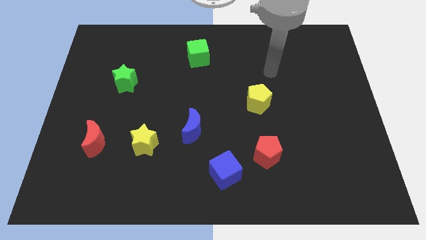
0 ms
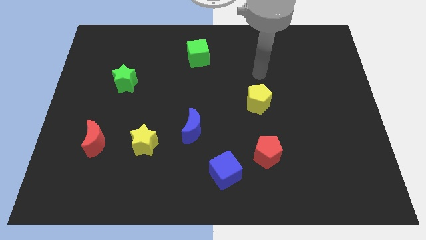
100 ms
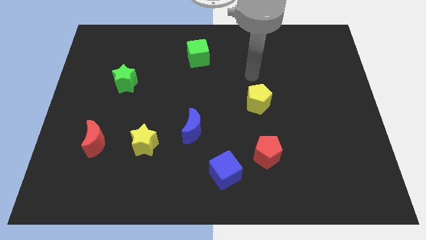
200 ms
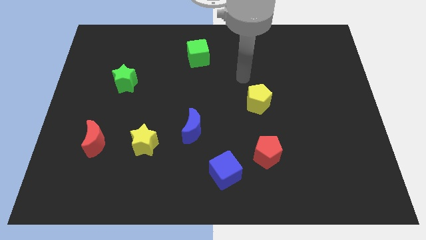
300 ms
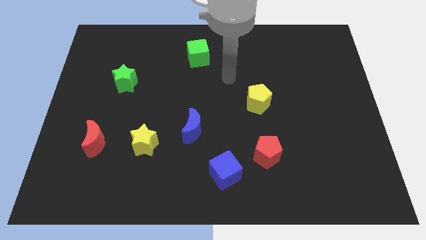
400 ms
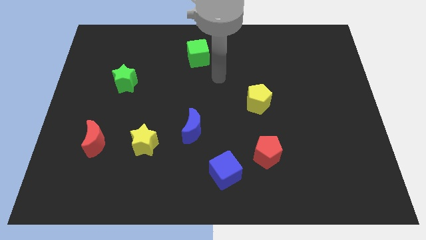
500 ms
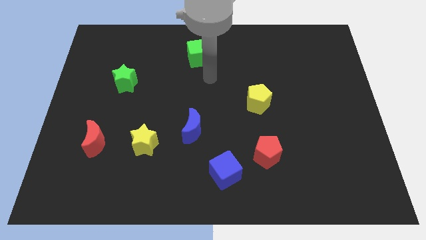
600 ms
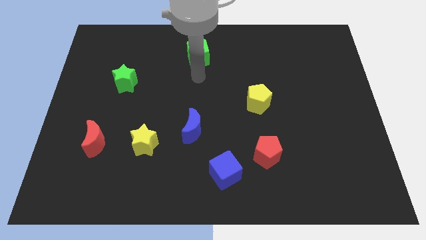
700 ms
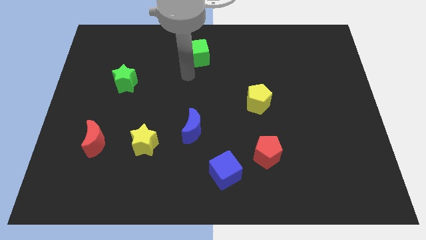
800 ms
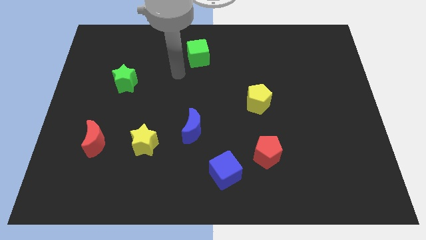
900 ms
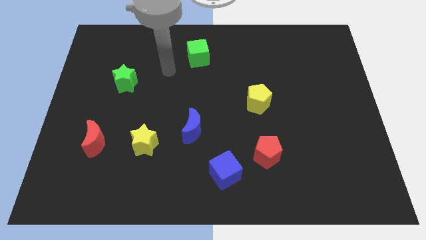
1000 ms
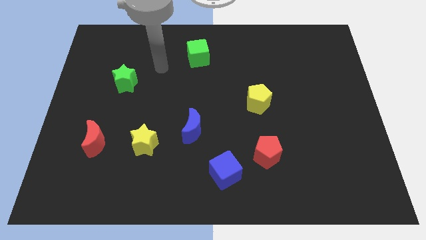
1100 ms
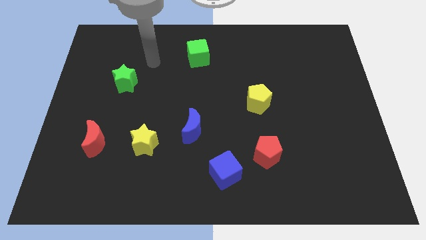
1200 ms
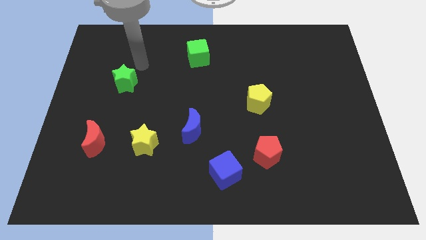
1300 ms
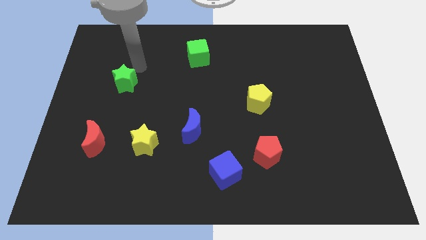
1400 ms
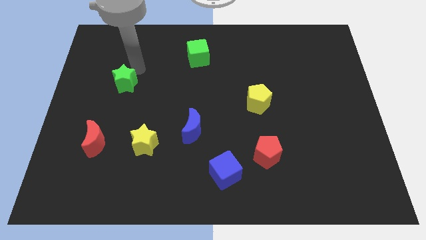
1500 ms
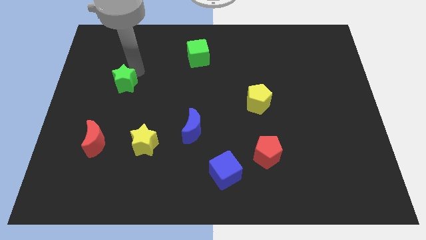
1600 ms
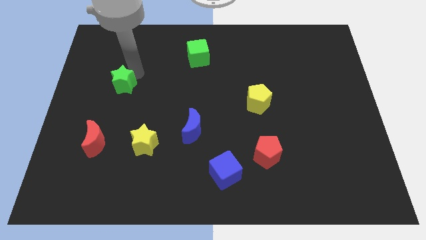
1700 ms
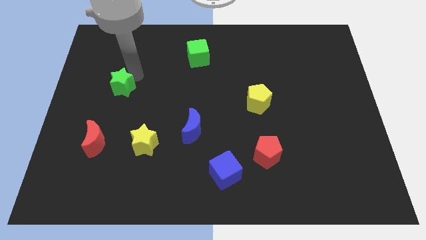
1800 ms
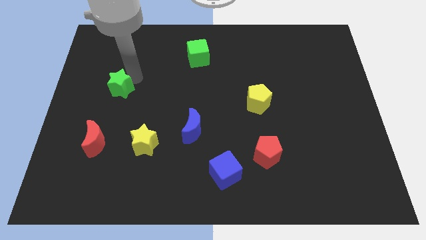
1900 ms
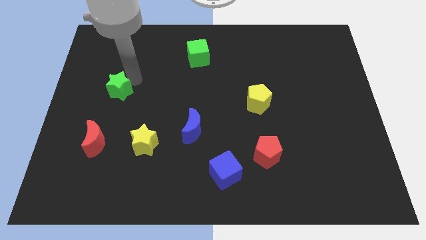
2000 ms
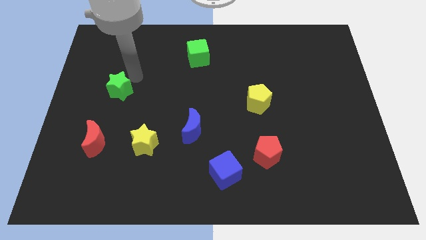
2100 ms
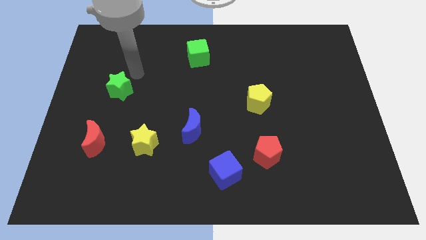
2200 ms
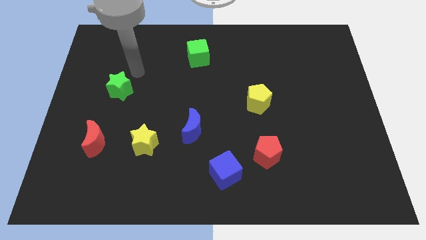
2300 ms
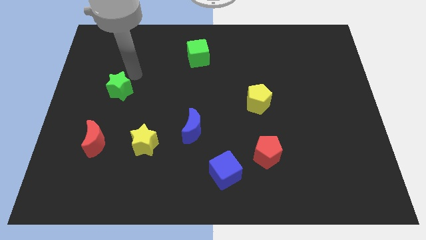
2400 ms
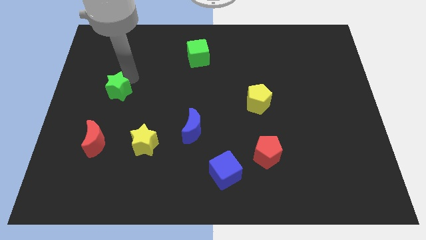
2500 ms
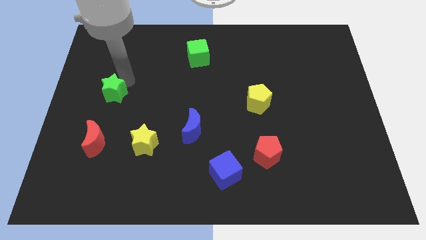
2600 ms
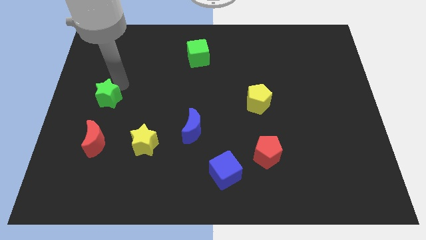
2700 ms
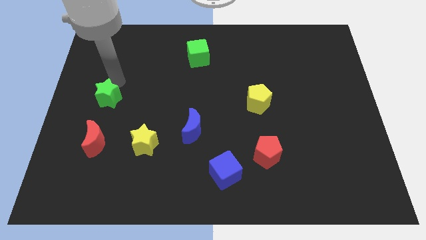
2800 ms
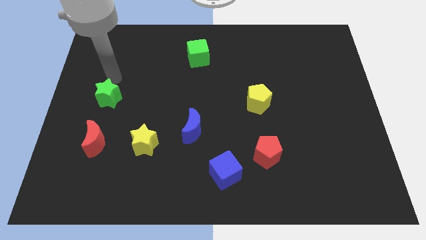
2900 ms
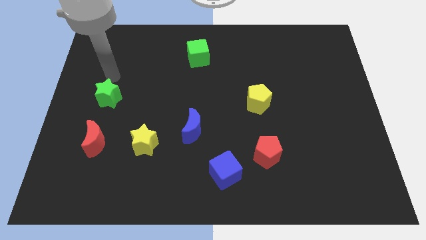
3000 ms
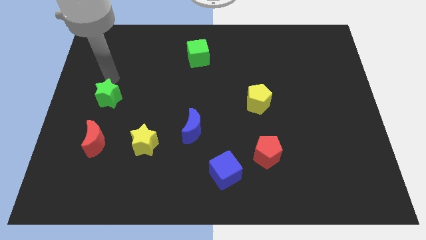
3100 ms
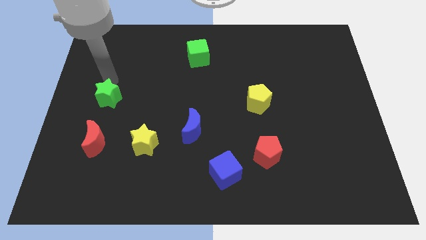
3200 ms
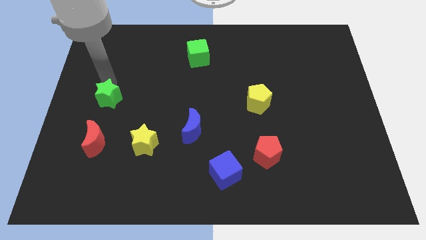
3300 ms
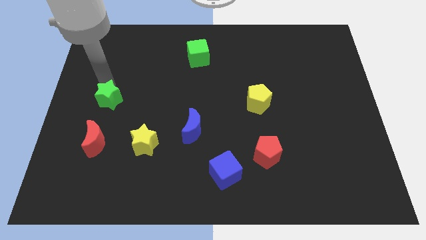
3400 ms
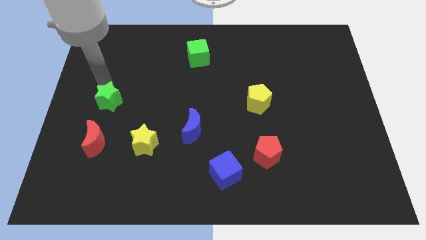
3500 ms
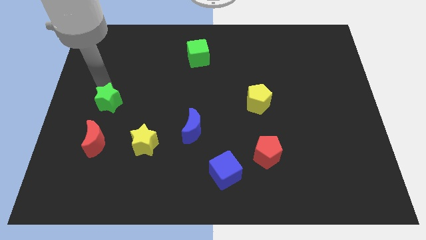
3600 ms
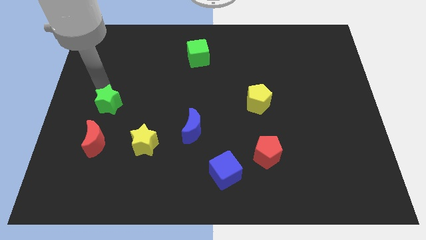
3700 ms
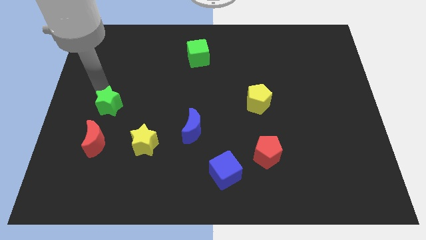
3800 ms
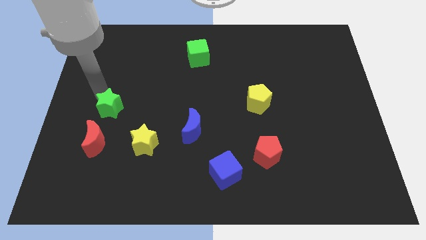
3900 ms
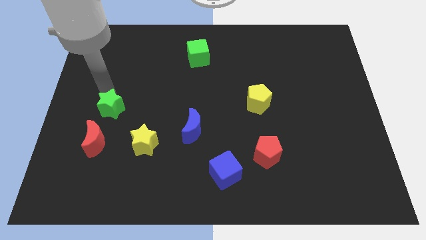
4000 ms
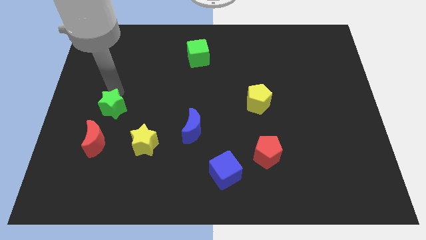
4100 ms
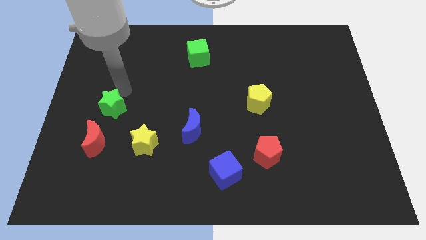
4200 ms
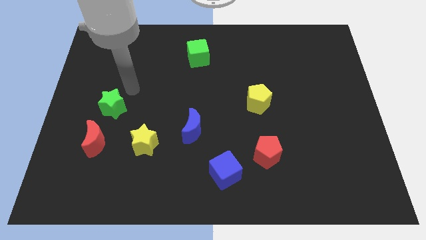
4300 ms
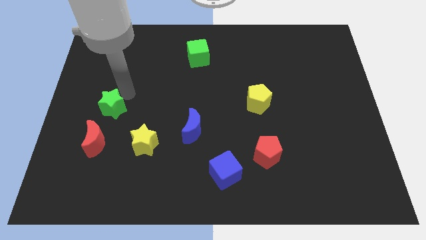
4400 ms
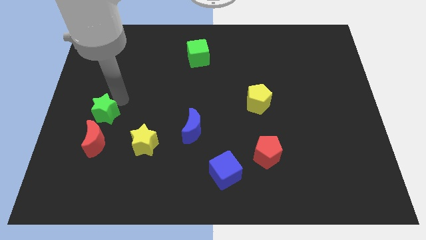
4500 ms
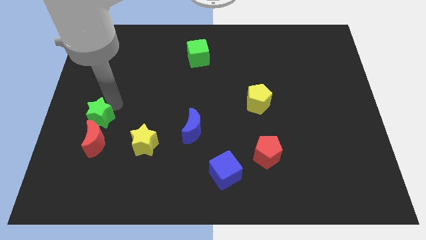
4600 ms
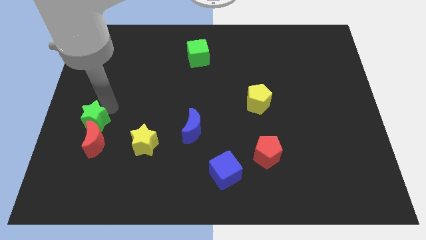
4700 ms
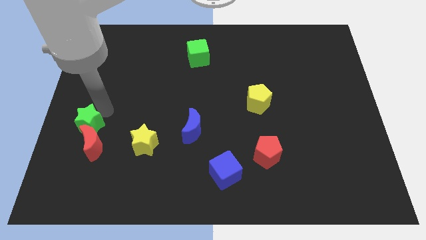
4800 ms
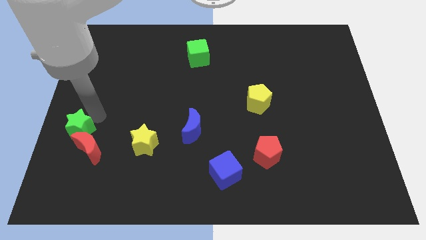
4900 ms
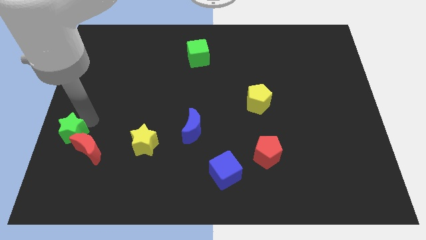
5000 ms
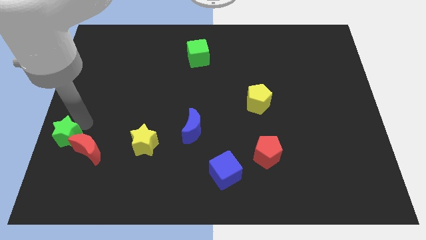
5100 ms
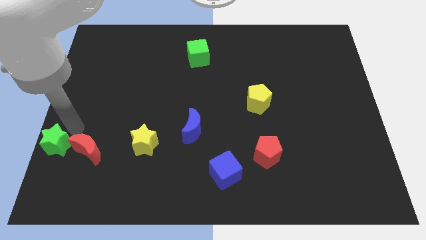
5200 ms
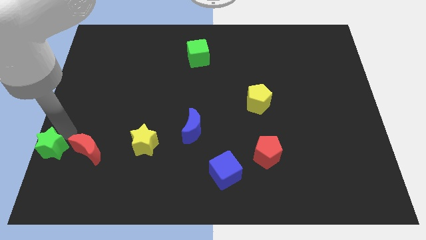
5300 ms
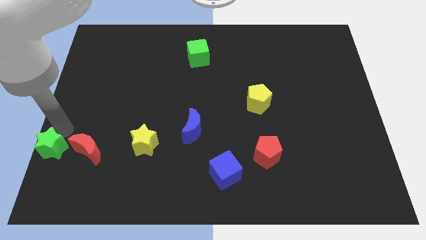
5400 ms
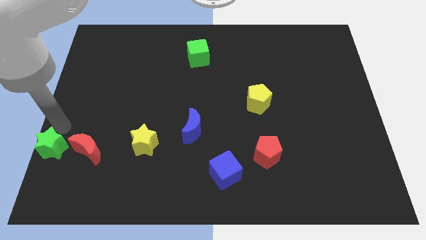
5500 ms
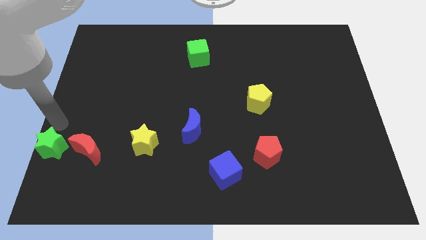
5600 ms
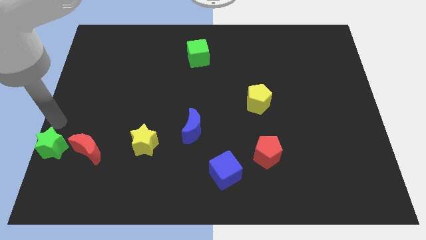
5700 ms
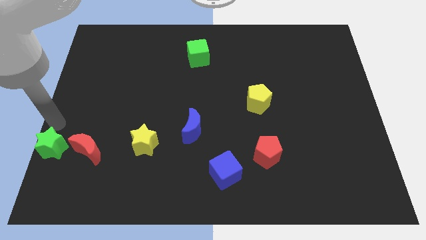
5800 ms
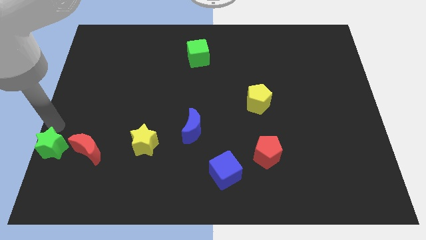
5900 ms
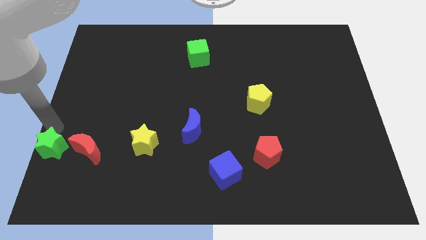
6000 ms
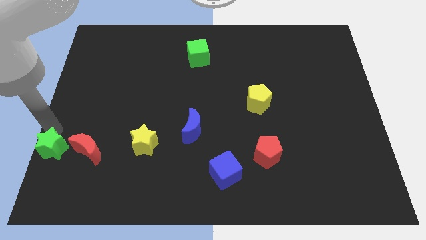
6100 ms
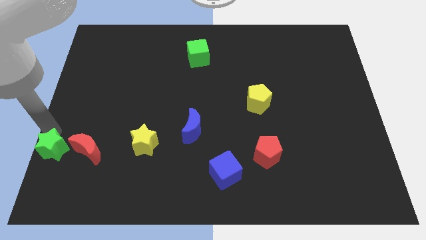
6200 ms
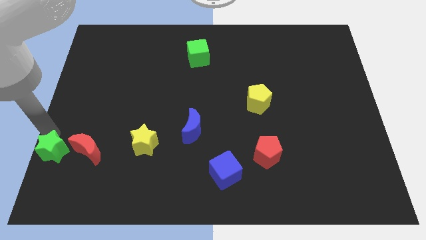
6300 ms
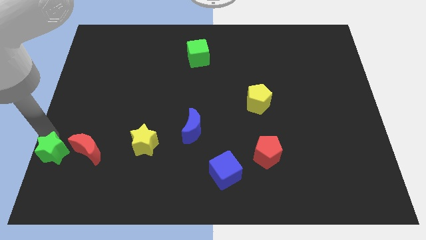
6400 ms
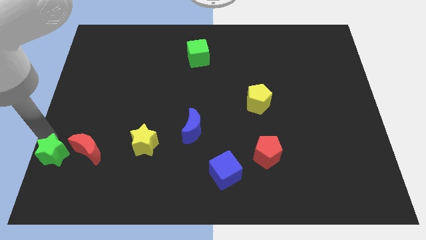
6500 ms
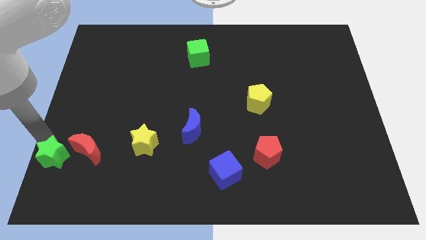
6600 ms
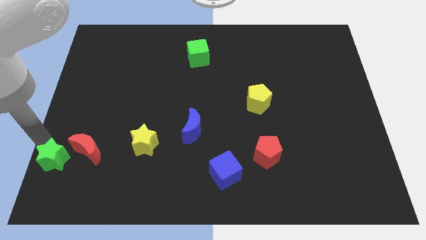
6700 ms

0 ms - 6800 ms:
put the green star to the bottom left corner
